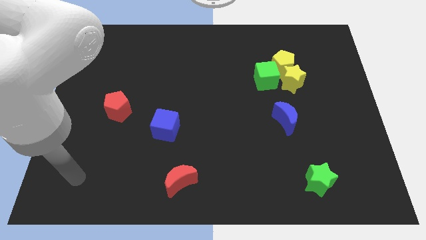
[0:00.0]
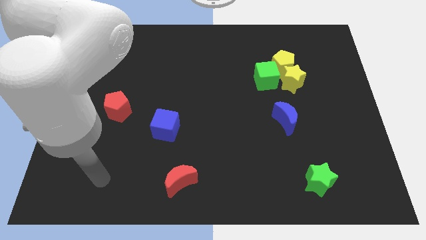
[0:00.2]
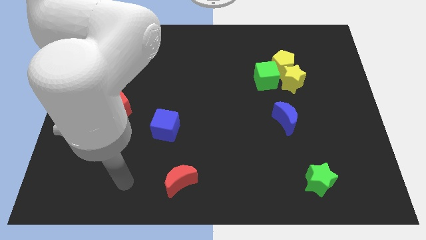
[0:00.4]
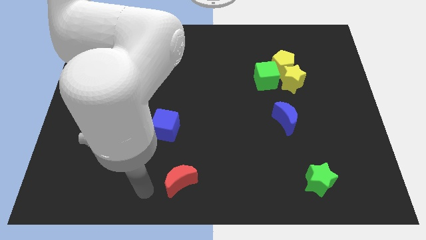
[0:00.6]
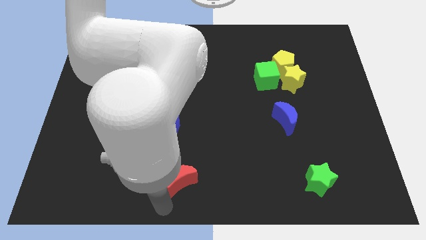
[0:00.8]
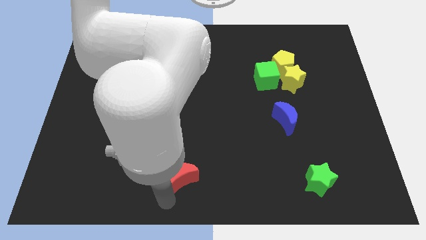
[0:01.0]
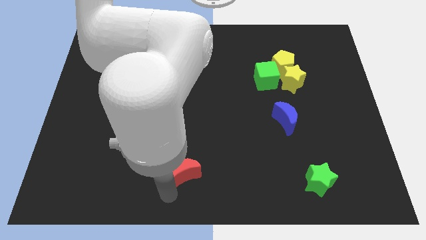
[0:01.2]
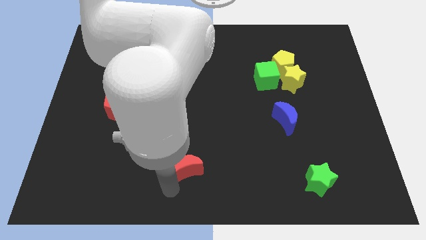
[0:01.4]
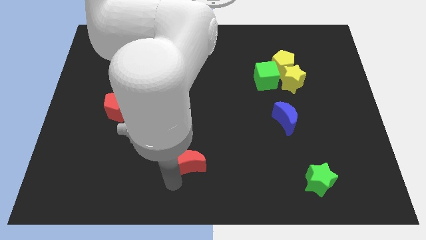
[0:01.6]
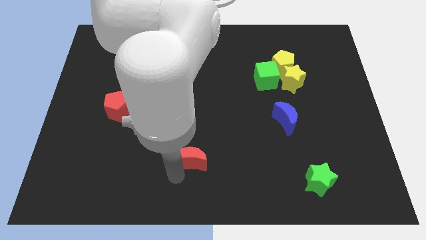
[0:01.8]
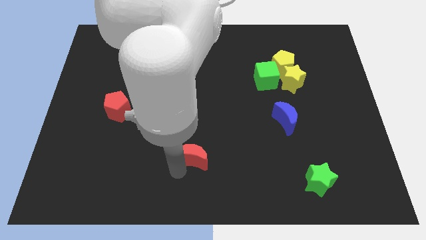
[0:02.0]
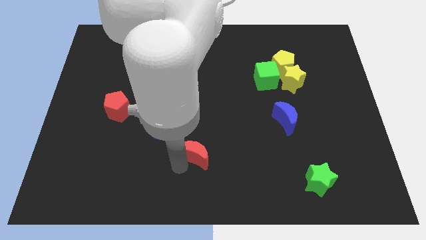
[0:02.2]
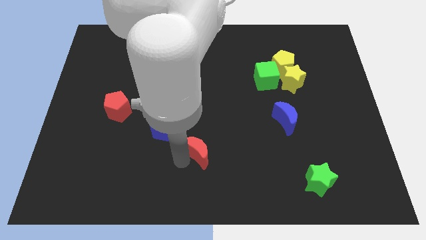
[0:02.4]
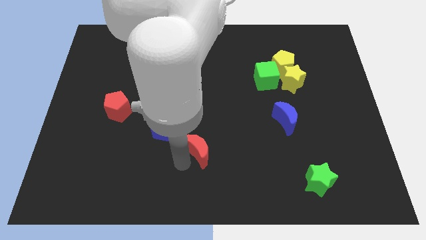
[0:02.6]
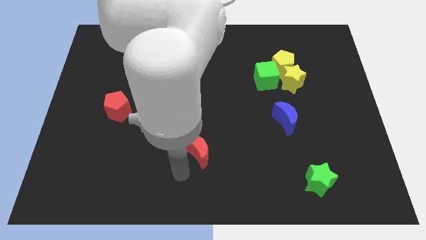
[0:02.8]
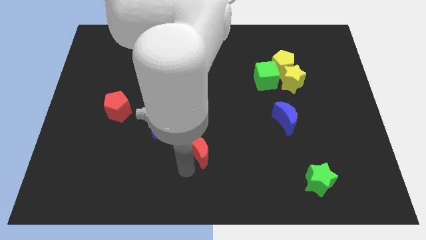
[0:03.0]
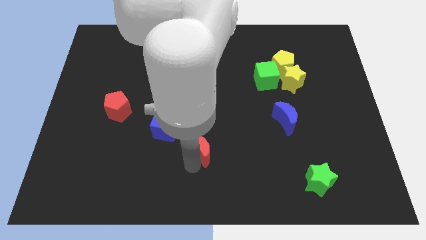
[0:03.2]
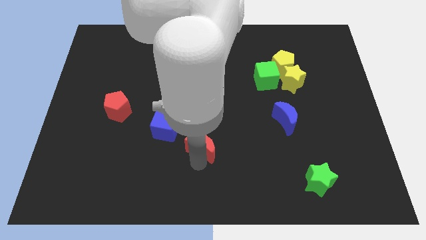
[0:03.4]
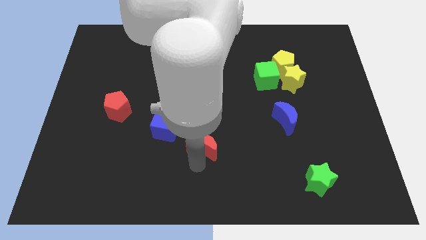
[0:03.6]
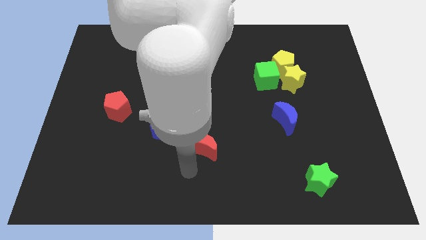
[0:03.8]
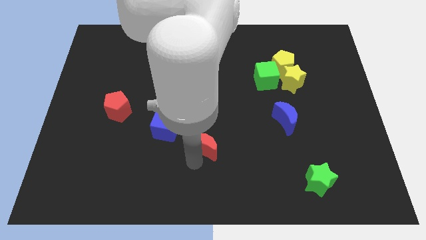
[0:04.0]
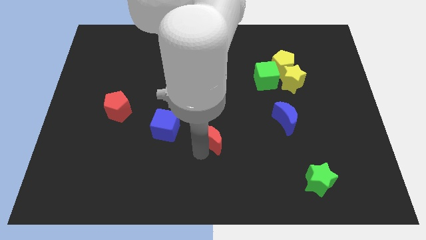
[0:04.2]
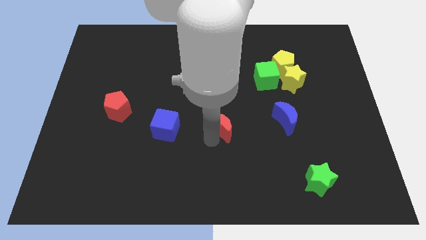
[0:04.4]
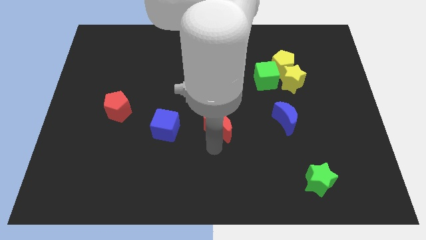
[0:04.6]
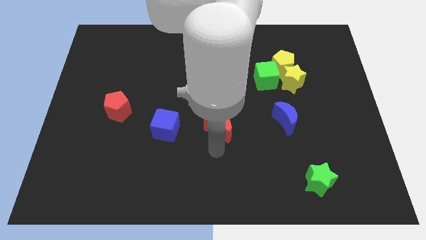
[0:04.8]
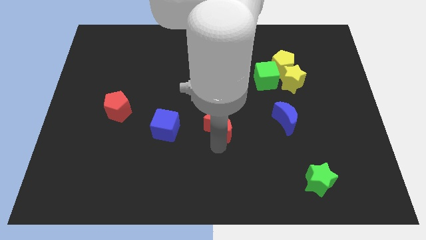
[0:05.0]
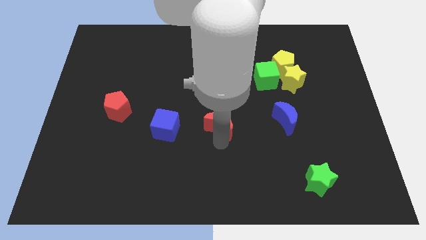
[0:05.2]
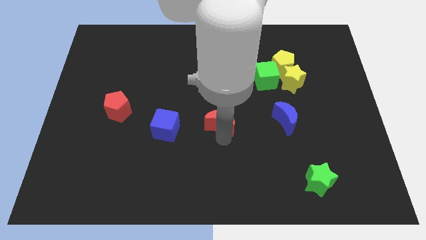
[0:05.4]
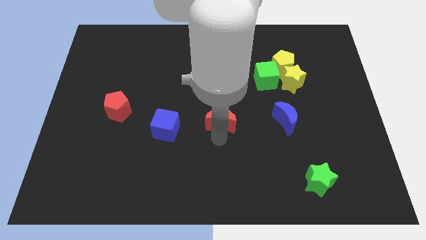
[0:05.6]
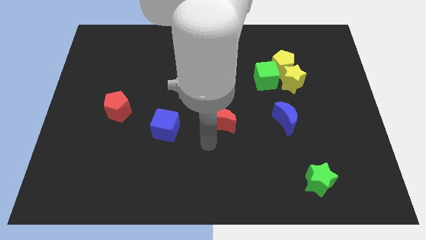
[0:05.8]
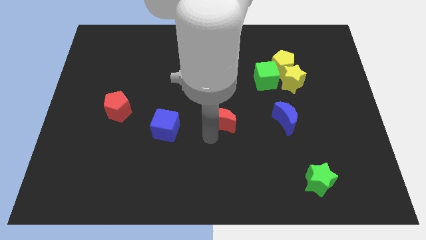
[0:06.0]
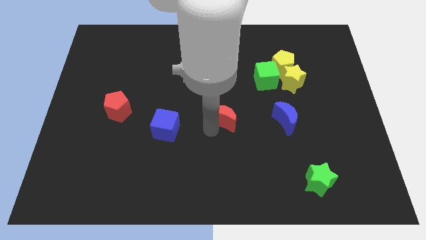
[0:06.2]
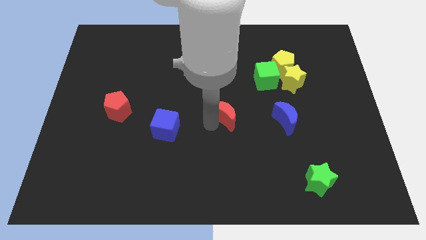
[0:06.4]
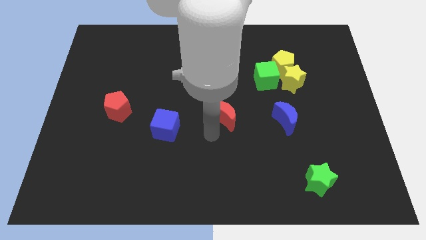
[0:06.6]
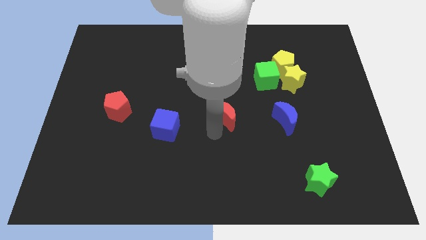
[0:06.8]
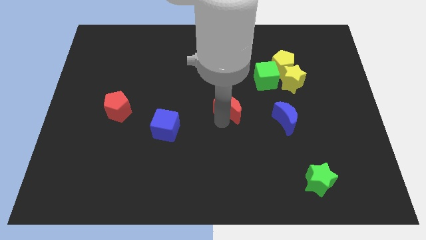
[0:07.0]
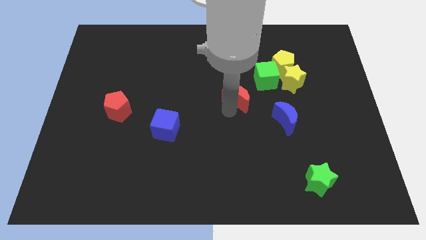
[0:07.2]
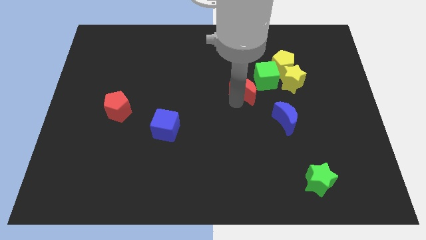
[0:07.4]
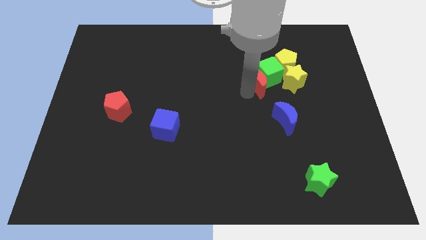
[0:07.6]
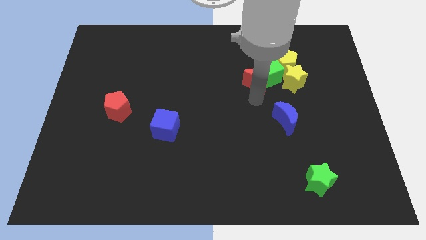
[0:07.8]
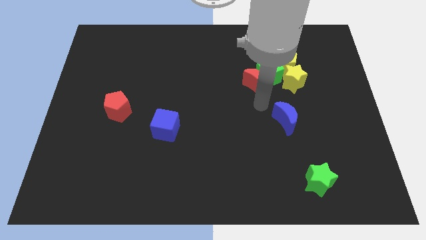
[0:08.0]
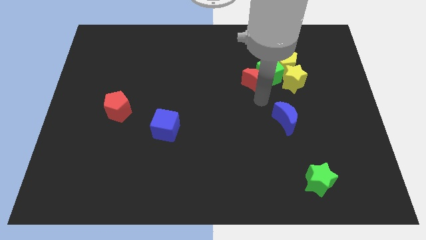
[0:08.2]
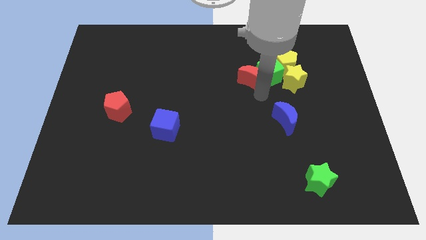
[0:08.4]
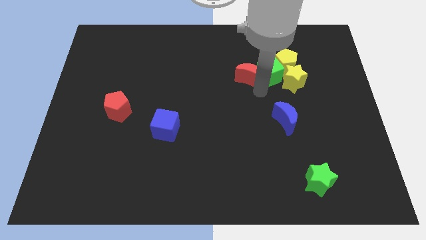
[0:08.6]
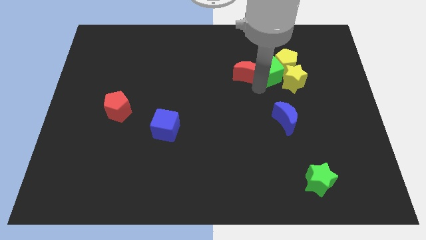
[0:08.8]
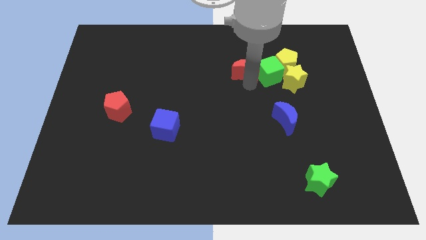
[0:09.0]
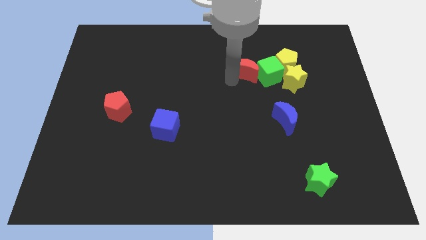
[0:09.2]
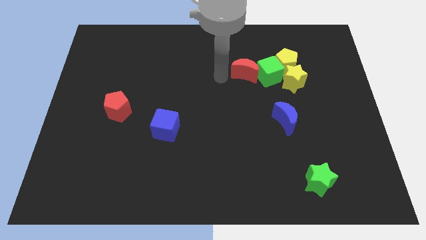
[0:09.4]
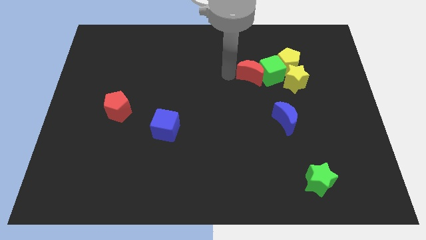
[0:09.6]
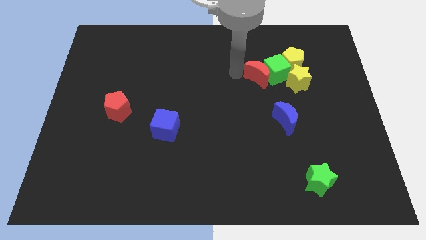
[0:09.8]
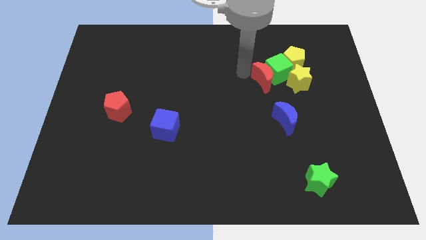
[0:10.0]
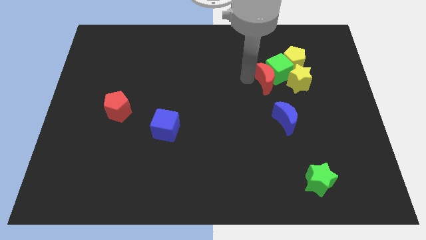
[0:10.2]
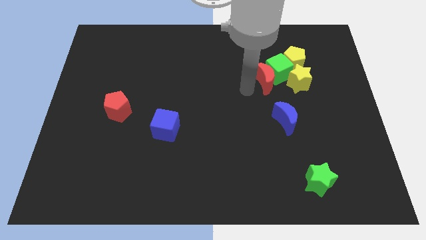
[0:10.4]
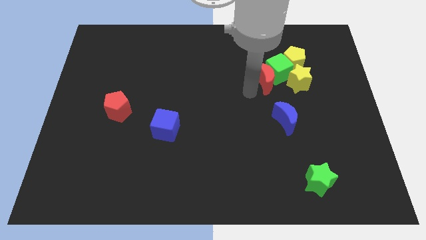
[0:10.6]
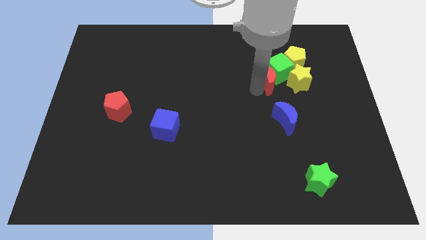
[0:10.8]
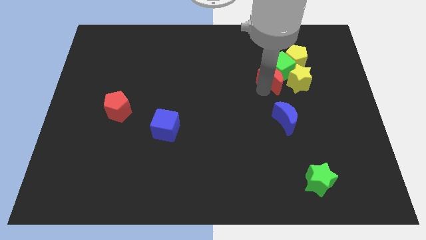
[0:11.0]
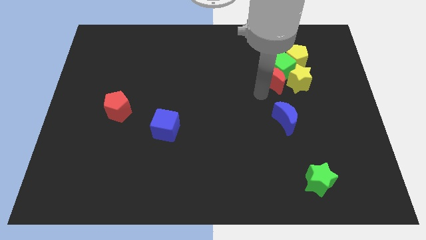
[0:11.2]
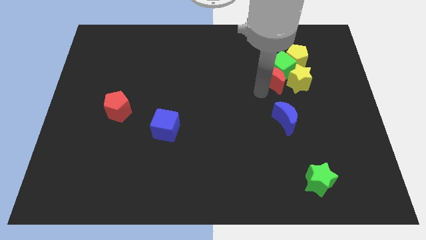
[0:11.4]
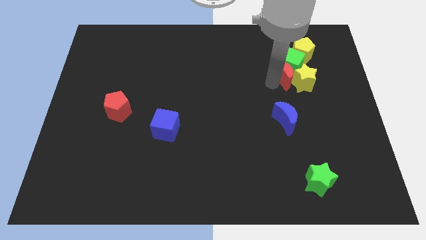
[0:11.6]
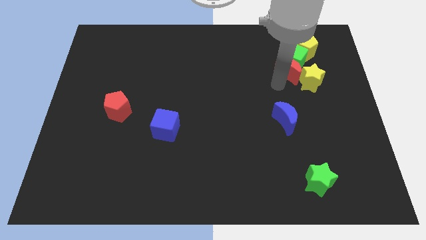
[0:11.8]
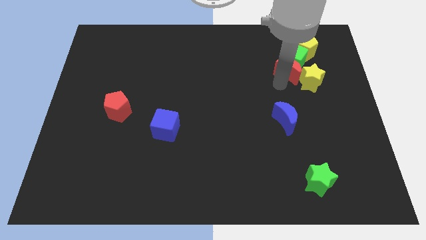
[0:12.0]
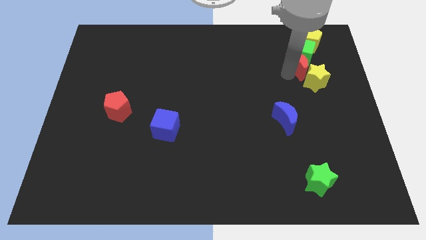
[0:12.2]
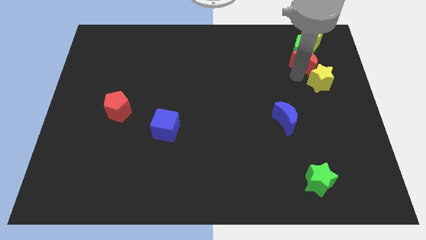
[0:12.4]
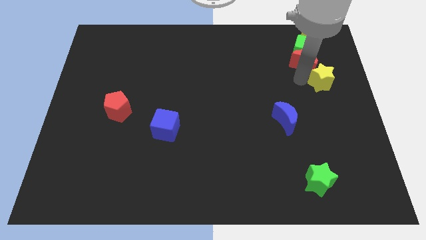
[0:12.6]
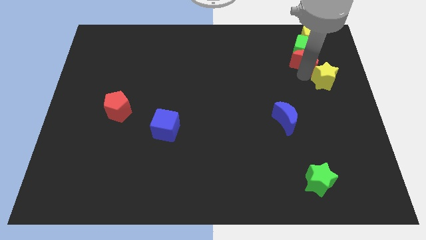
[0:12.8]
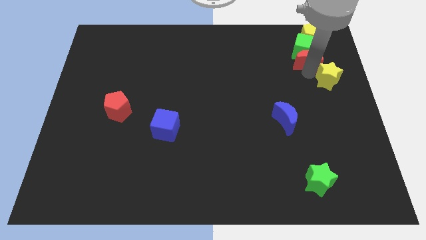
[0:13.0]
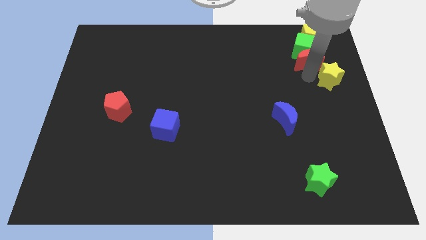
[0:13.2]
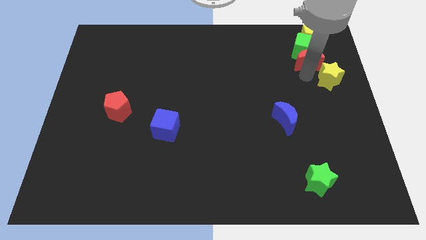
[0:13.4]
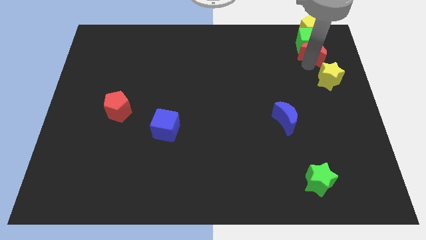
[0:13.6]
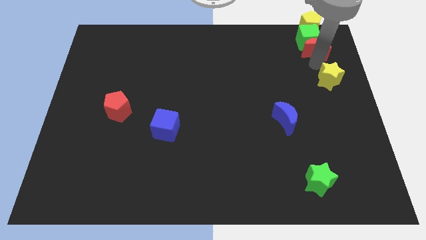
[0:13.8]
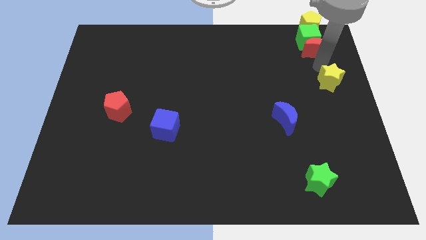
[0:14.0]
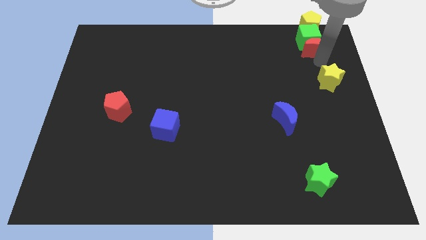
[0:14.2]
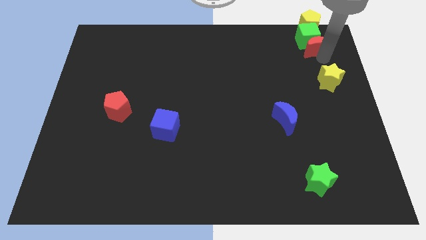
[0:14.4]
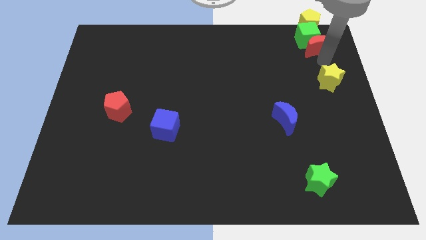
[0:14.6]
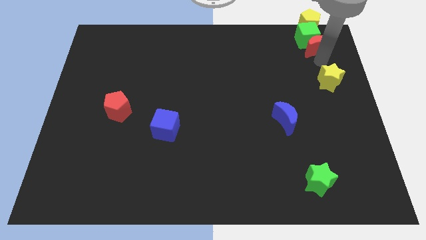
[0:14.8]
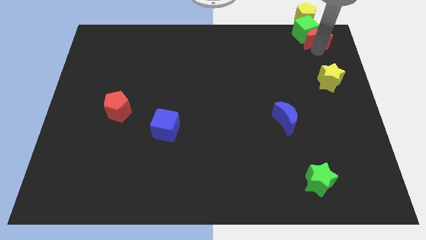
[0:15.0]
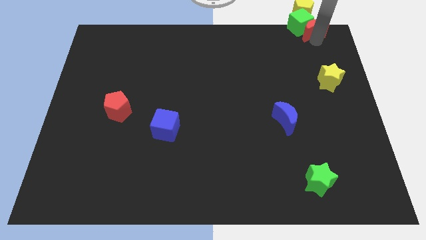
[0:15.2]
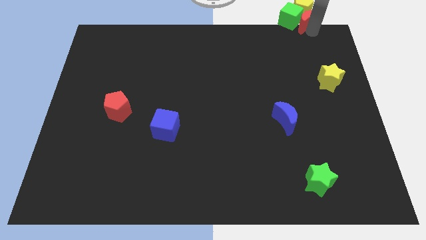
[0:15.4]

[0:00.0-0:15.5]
slide the red moon next to the yellow pentagon
